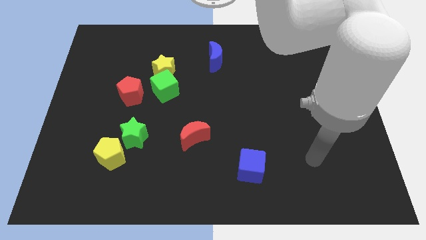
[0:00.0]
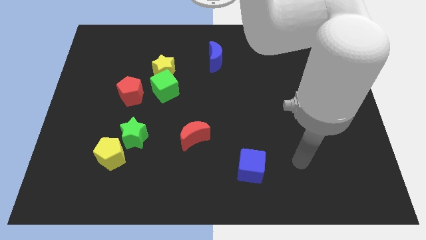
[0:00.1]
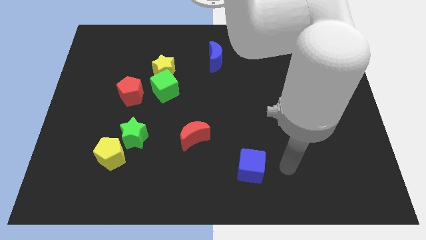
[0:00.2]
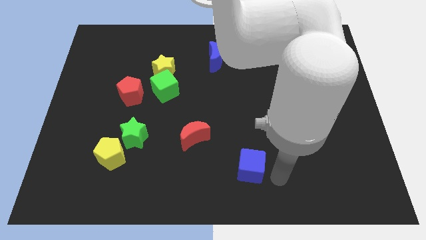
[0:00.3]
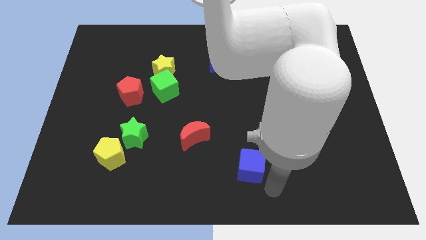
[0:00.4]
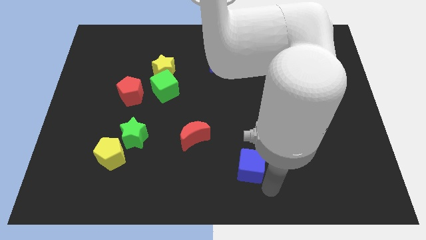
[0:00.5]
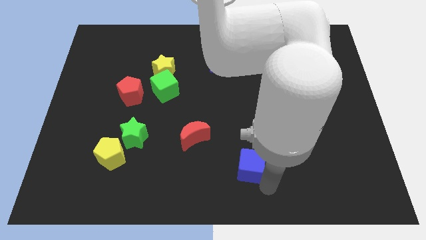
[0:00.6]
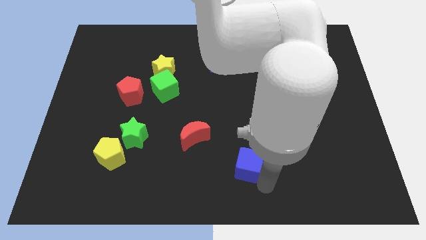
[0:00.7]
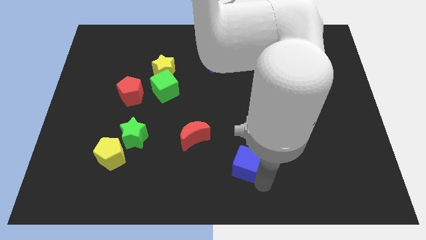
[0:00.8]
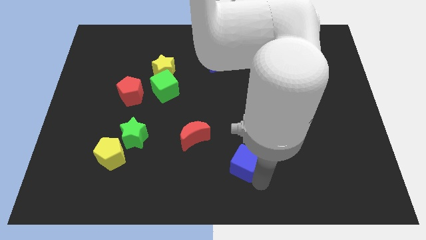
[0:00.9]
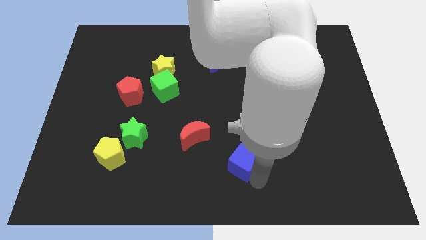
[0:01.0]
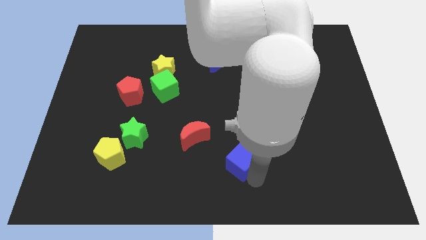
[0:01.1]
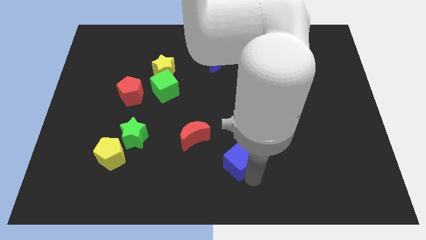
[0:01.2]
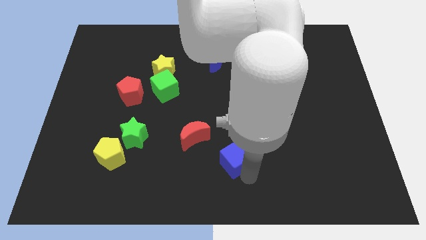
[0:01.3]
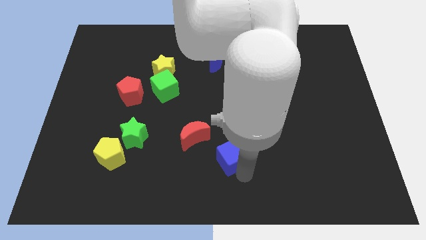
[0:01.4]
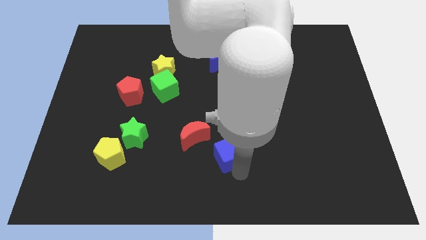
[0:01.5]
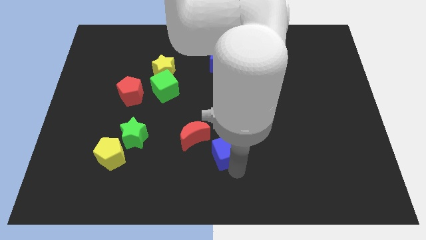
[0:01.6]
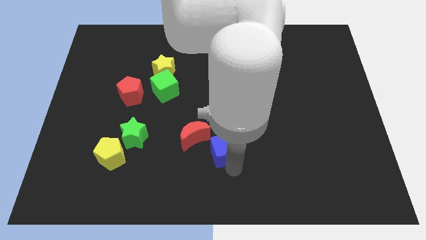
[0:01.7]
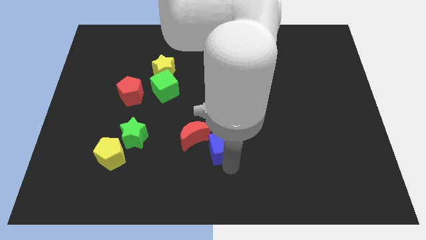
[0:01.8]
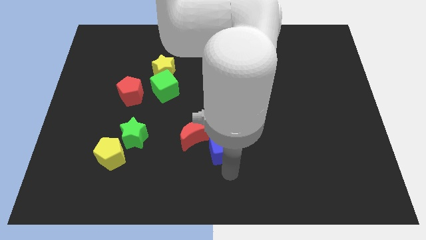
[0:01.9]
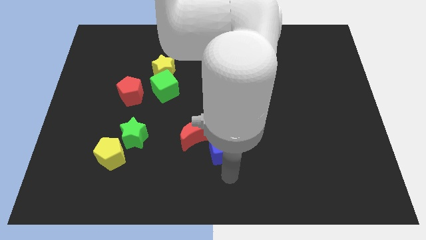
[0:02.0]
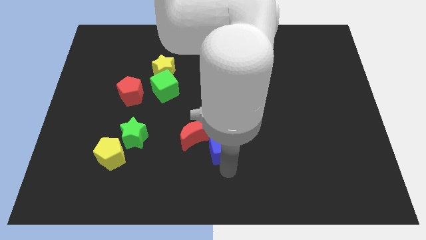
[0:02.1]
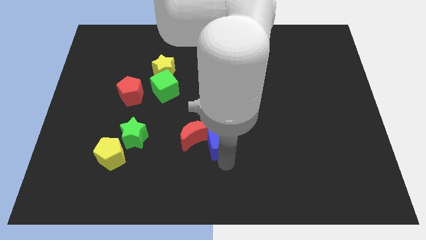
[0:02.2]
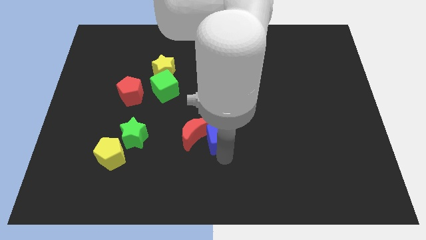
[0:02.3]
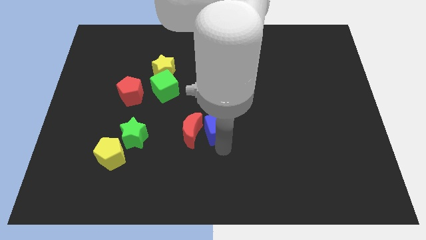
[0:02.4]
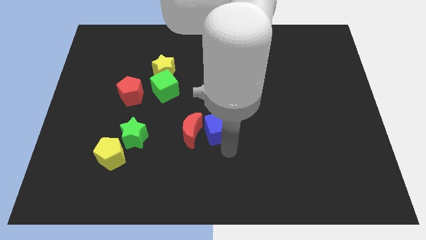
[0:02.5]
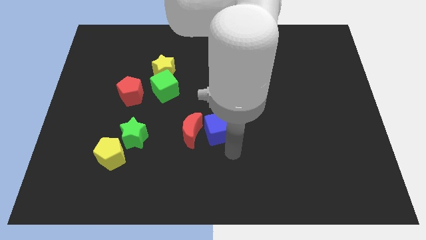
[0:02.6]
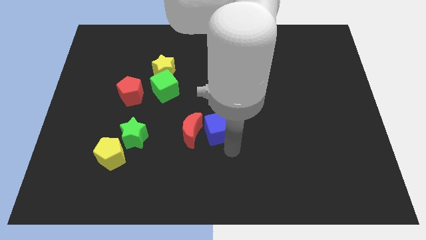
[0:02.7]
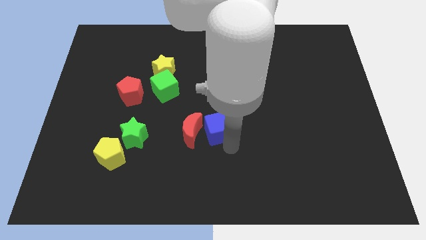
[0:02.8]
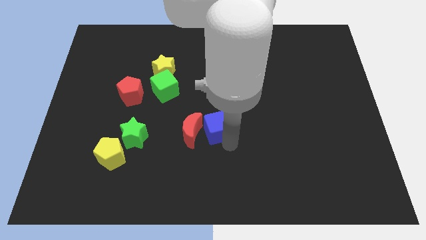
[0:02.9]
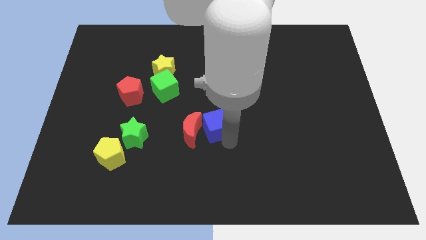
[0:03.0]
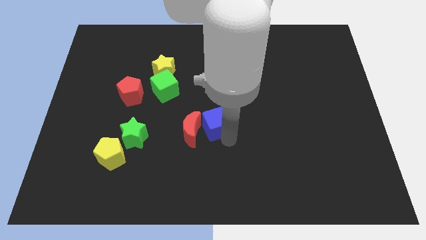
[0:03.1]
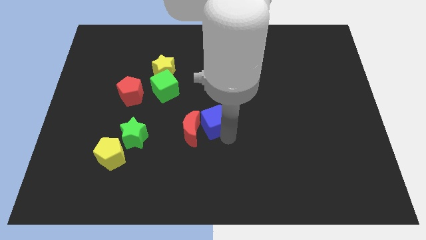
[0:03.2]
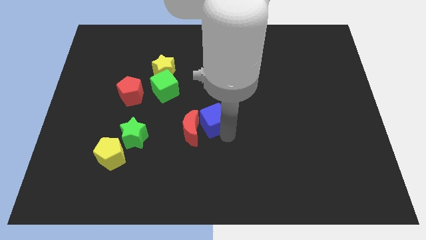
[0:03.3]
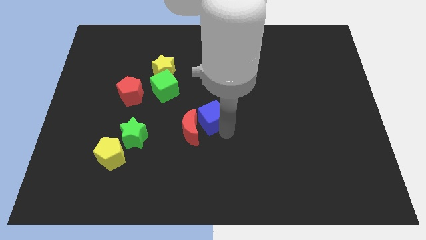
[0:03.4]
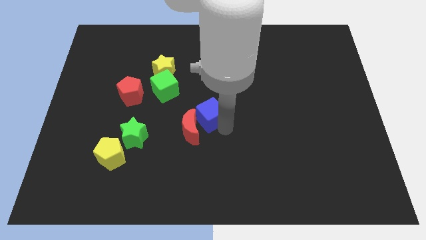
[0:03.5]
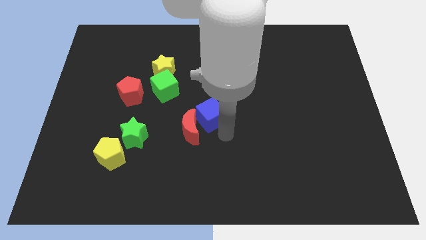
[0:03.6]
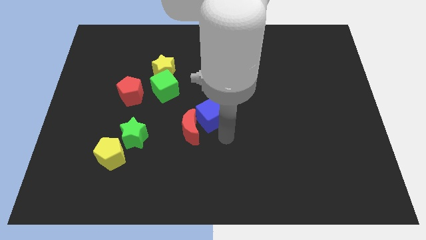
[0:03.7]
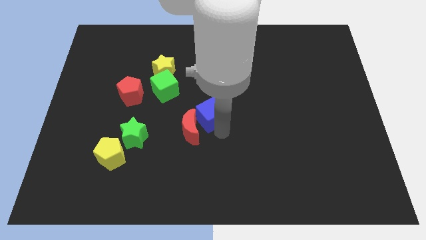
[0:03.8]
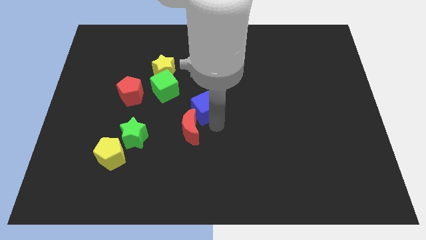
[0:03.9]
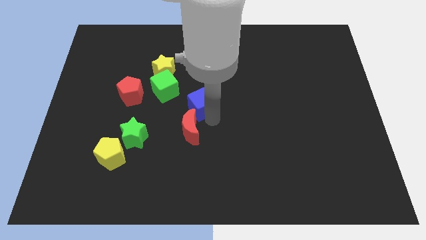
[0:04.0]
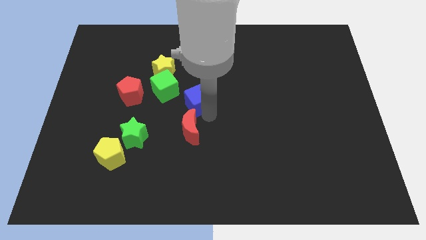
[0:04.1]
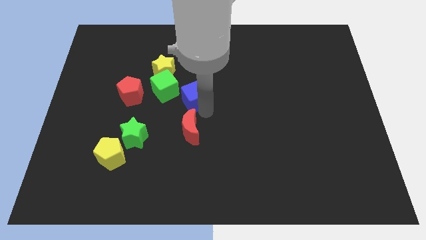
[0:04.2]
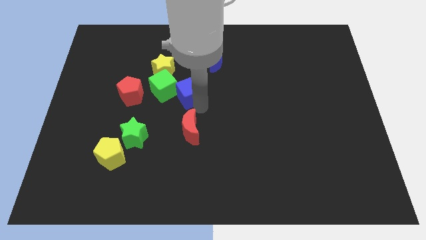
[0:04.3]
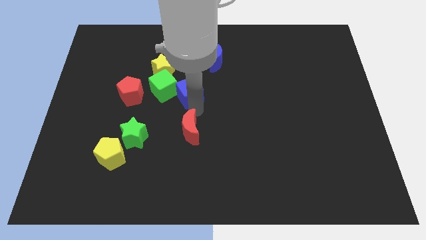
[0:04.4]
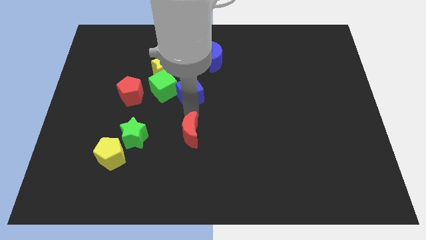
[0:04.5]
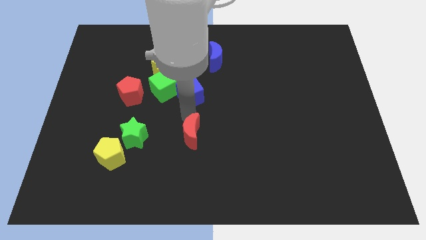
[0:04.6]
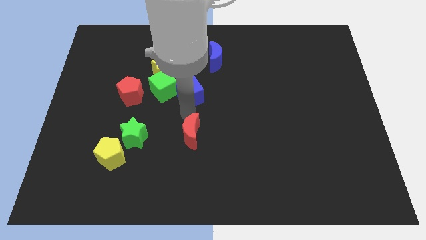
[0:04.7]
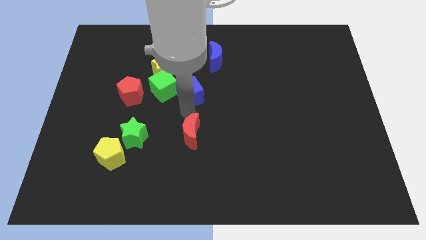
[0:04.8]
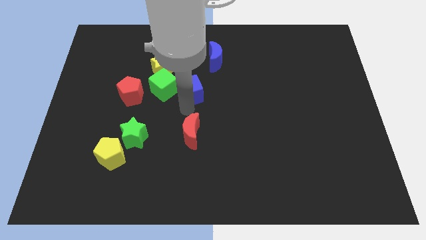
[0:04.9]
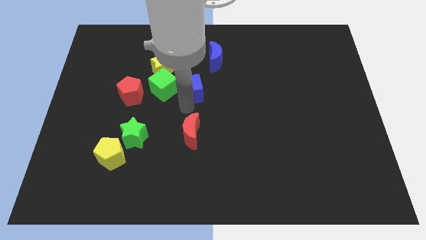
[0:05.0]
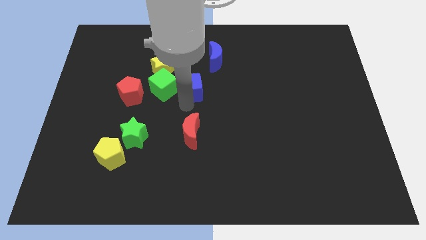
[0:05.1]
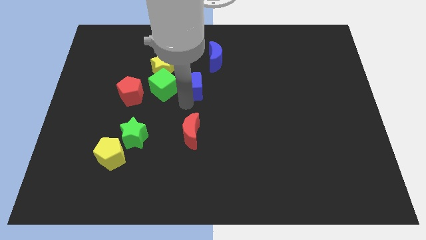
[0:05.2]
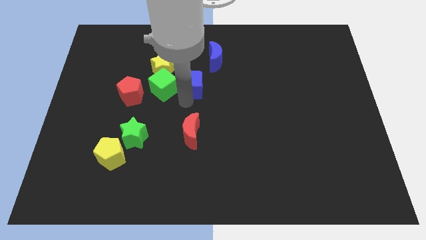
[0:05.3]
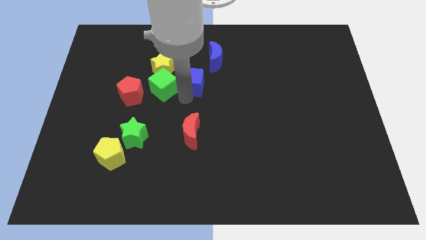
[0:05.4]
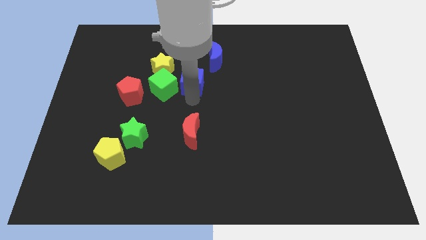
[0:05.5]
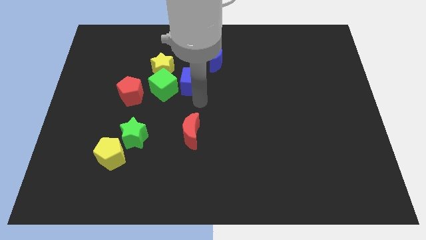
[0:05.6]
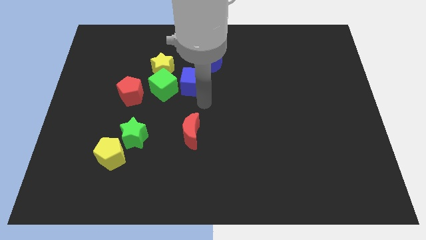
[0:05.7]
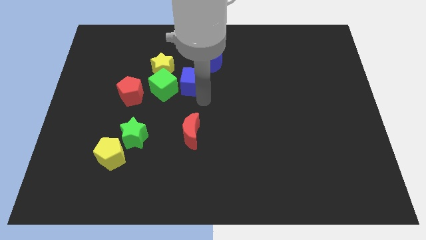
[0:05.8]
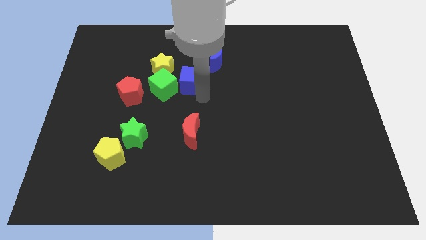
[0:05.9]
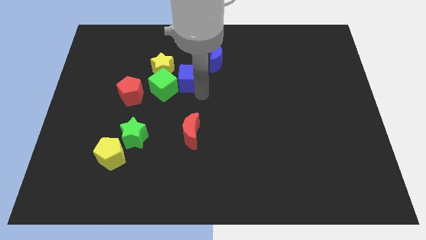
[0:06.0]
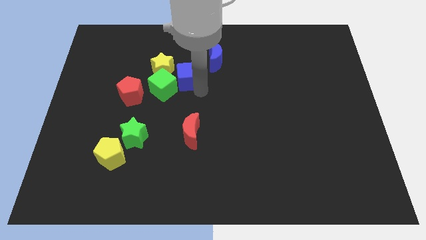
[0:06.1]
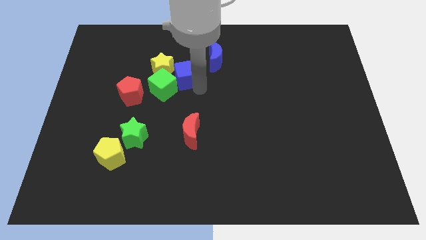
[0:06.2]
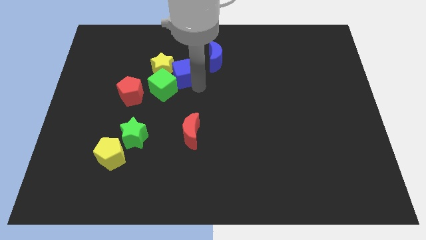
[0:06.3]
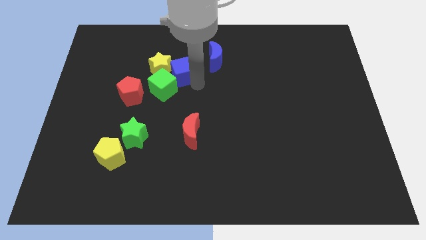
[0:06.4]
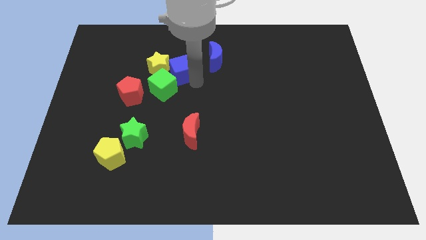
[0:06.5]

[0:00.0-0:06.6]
push the blue cube left of the blue moon

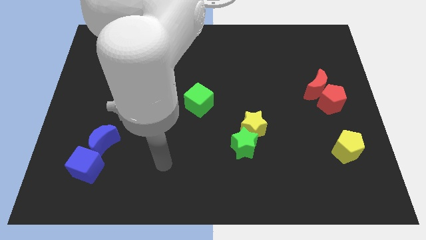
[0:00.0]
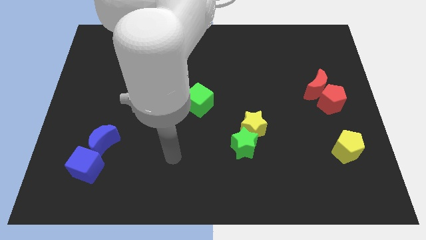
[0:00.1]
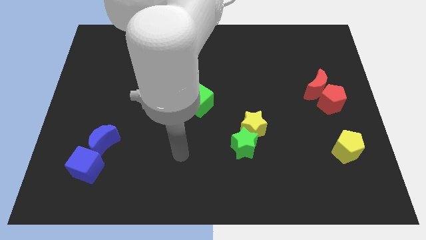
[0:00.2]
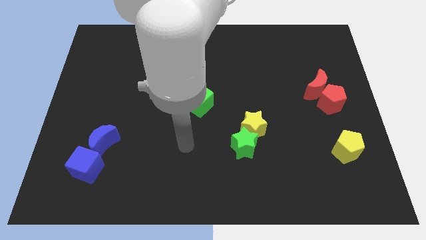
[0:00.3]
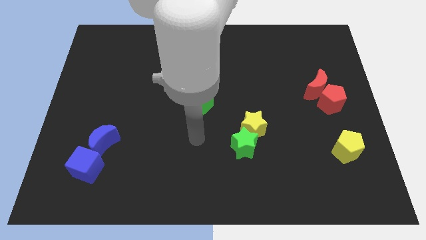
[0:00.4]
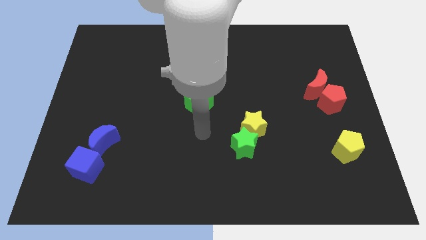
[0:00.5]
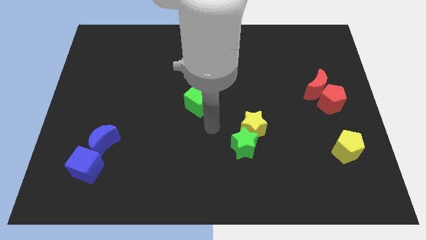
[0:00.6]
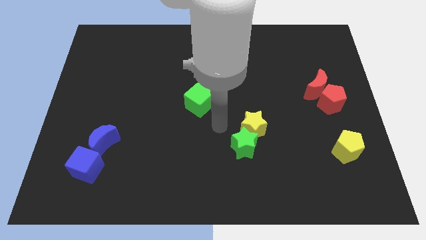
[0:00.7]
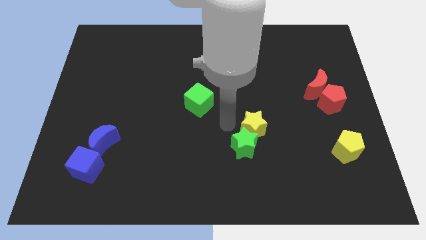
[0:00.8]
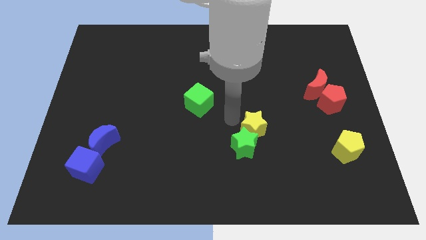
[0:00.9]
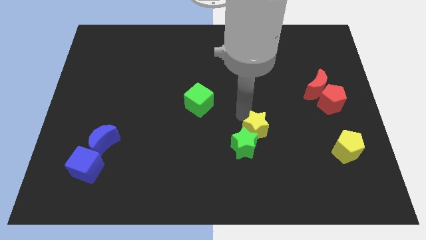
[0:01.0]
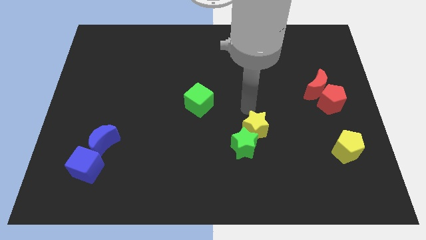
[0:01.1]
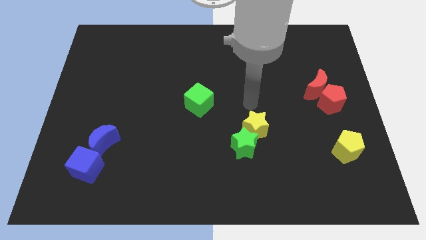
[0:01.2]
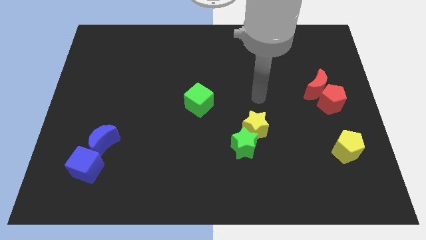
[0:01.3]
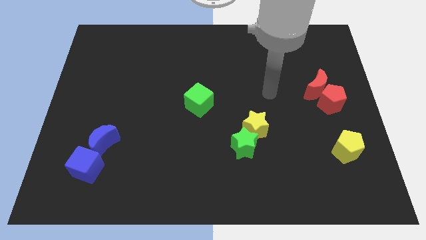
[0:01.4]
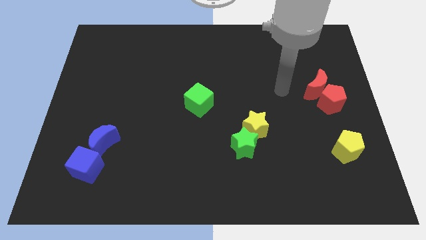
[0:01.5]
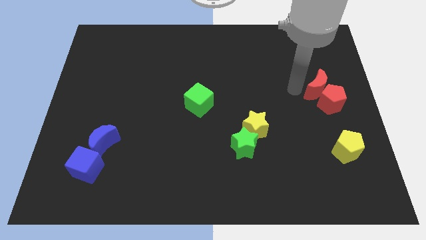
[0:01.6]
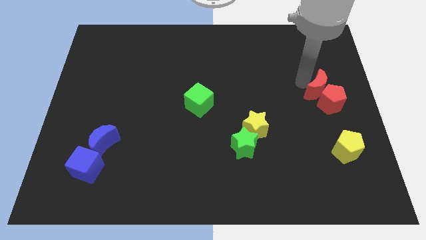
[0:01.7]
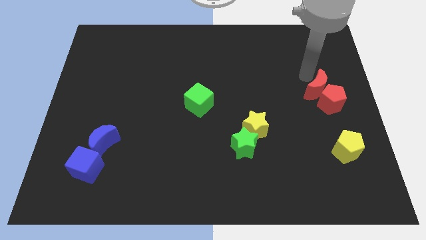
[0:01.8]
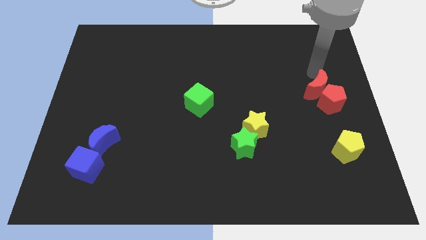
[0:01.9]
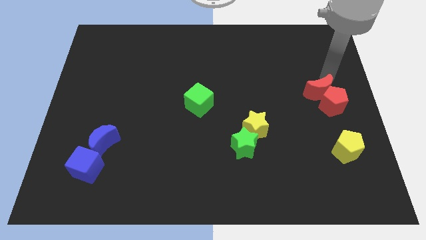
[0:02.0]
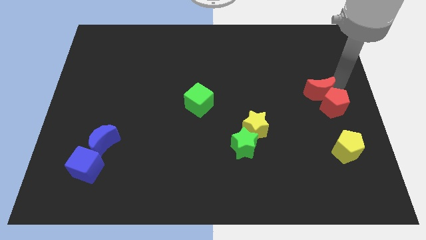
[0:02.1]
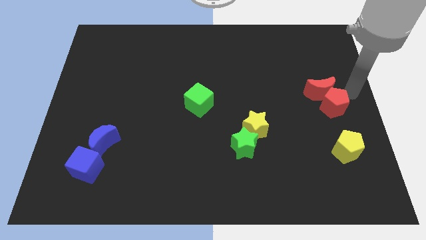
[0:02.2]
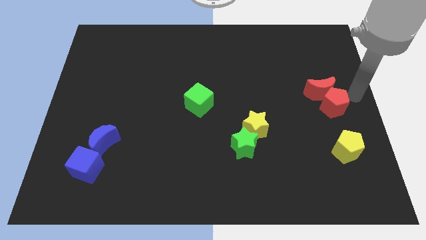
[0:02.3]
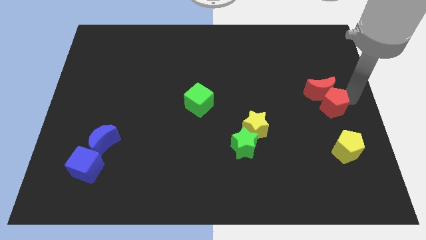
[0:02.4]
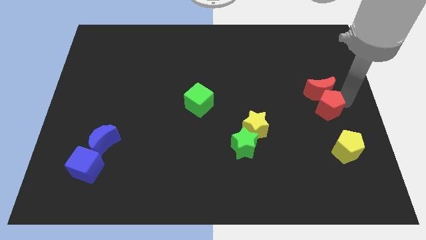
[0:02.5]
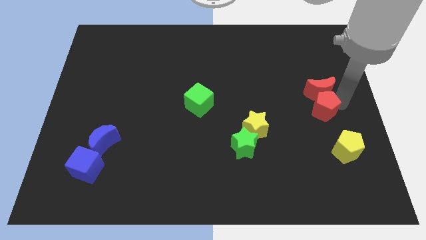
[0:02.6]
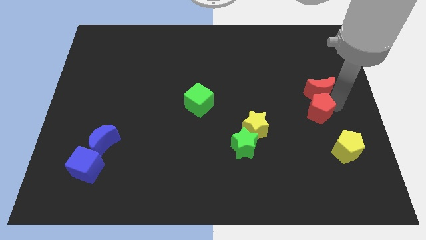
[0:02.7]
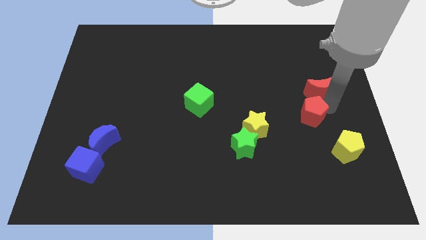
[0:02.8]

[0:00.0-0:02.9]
slide the red pentagon just right of the yellow star
